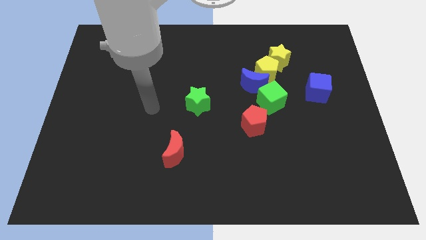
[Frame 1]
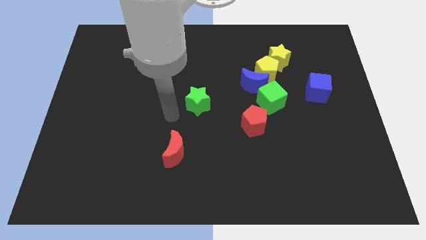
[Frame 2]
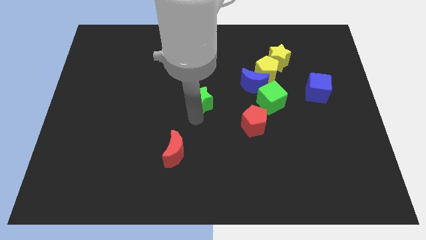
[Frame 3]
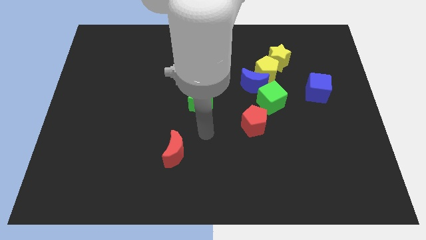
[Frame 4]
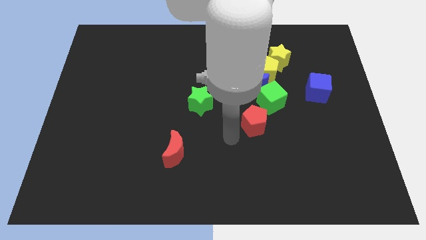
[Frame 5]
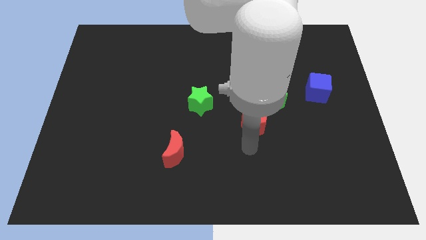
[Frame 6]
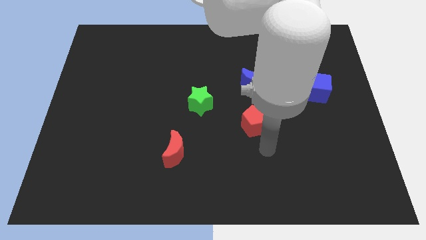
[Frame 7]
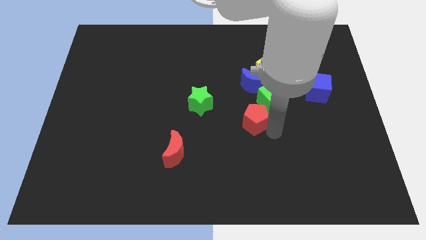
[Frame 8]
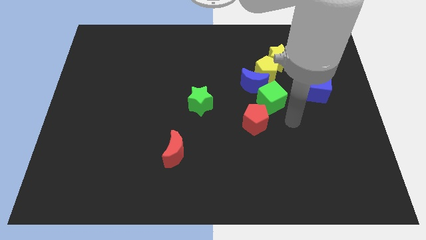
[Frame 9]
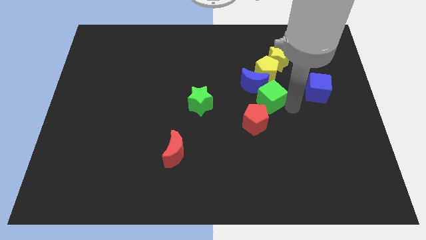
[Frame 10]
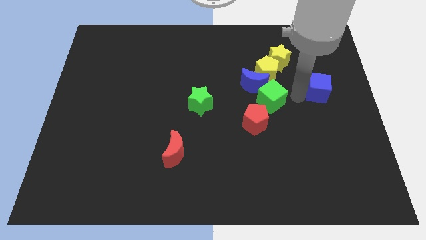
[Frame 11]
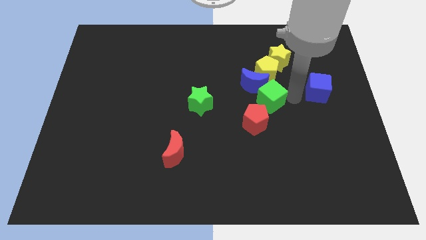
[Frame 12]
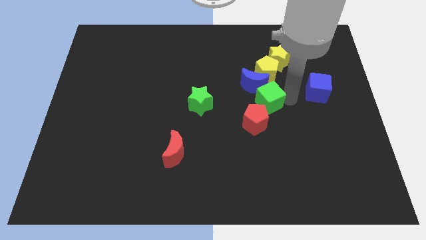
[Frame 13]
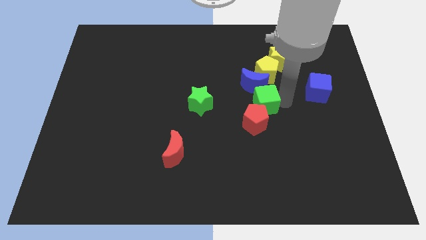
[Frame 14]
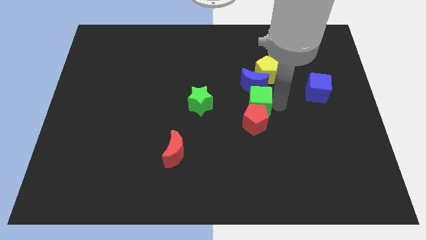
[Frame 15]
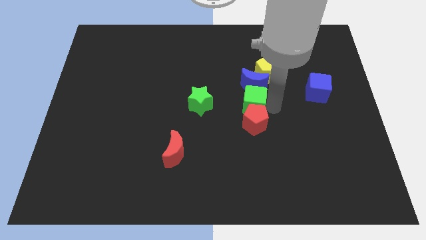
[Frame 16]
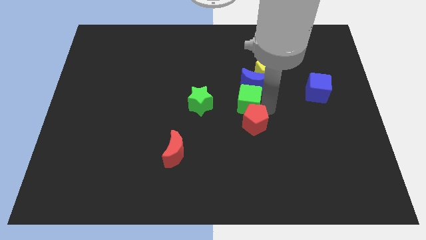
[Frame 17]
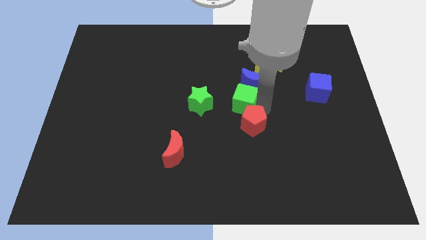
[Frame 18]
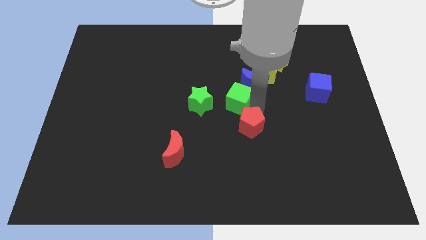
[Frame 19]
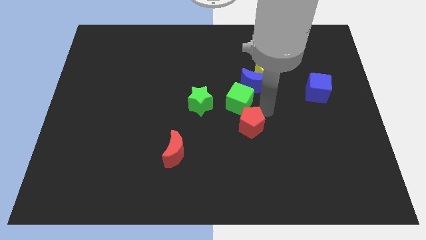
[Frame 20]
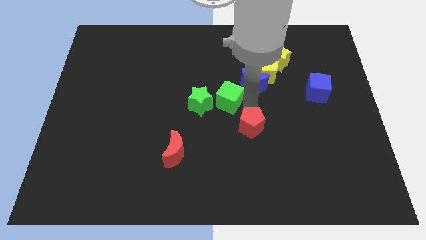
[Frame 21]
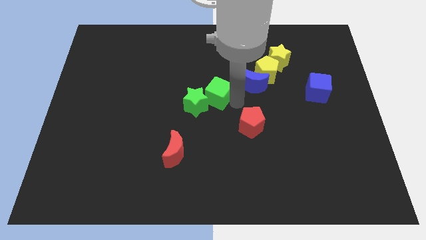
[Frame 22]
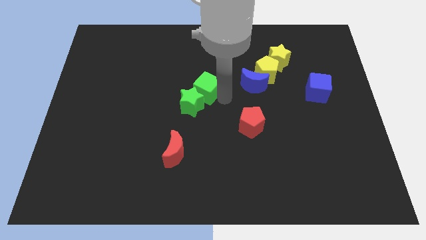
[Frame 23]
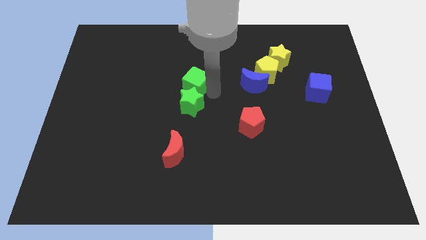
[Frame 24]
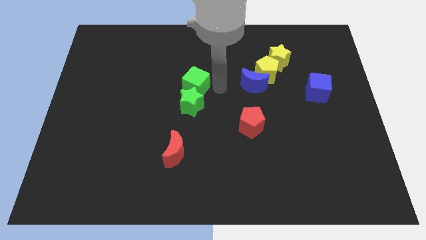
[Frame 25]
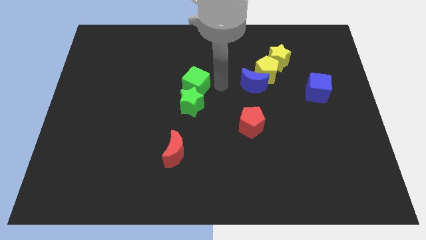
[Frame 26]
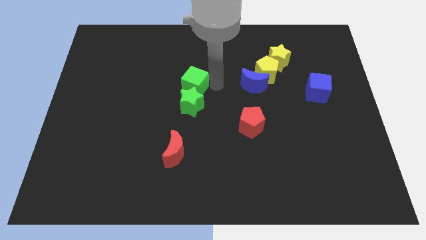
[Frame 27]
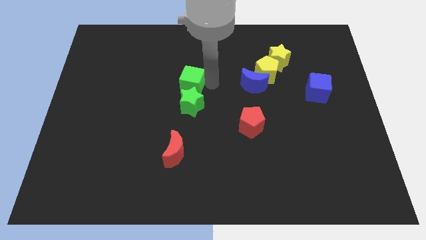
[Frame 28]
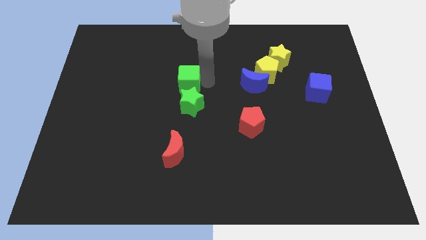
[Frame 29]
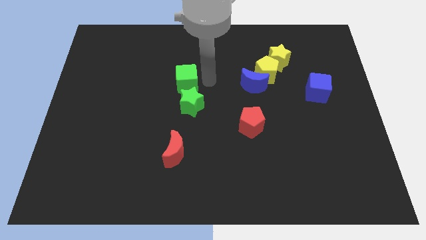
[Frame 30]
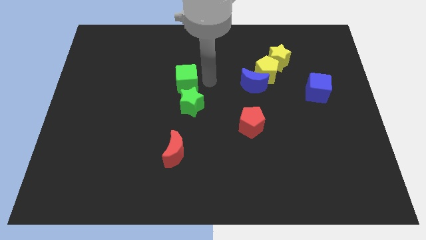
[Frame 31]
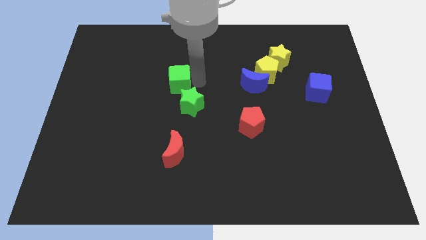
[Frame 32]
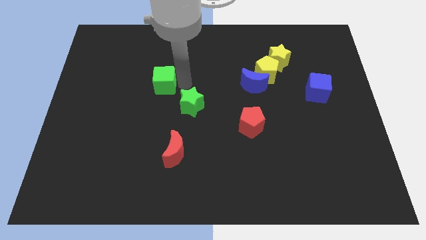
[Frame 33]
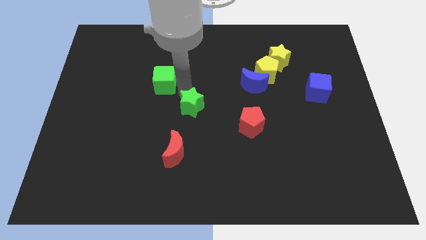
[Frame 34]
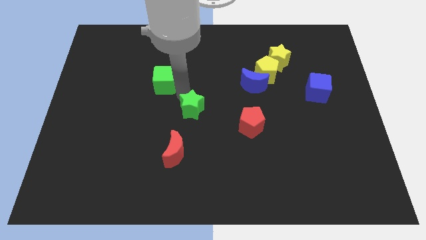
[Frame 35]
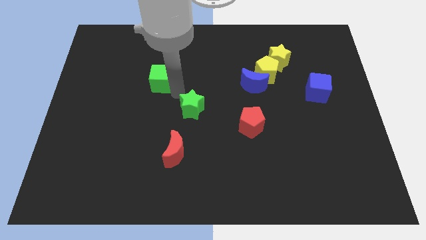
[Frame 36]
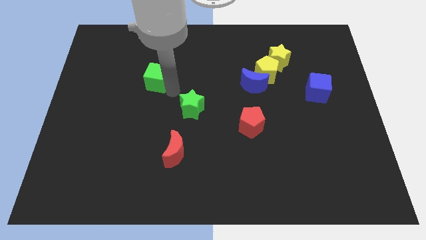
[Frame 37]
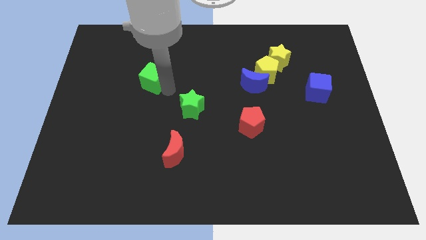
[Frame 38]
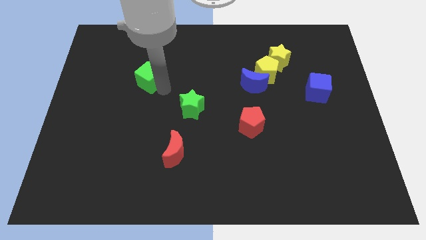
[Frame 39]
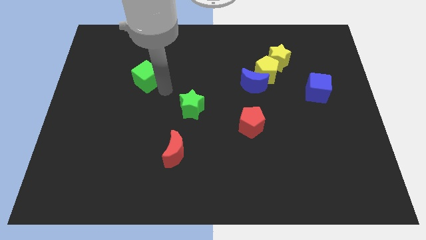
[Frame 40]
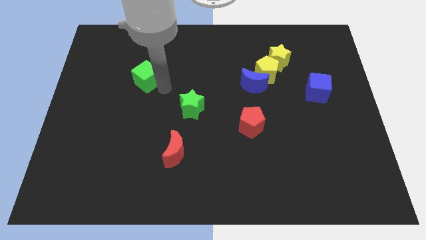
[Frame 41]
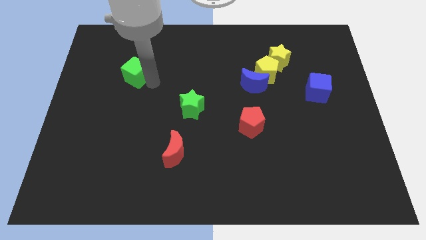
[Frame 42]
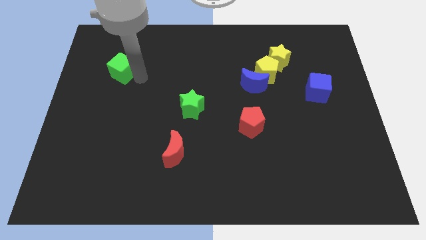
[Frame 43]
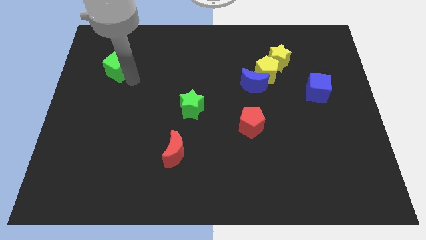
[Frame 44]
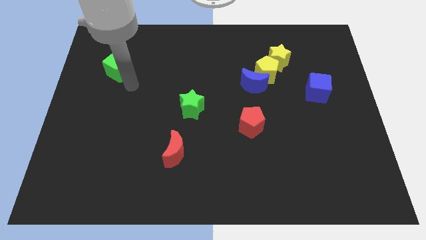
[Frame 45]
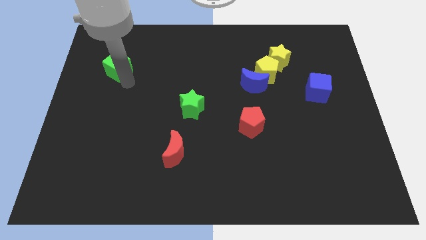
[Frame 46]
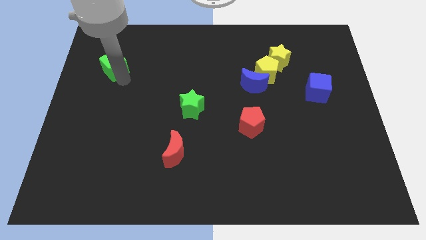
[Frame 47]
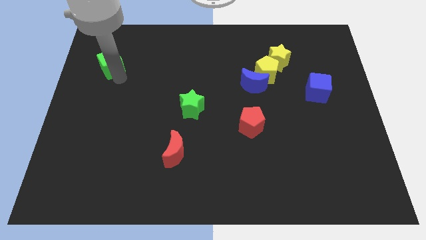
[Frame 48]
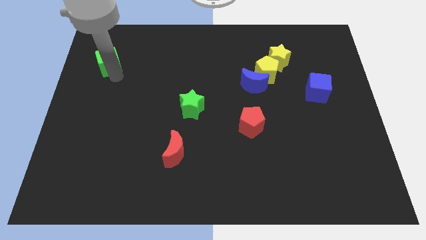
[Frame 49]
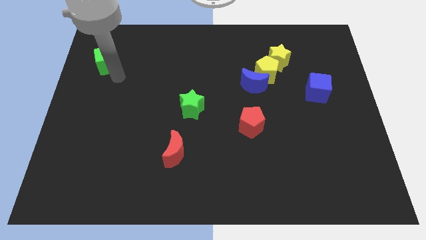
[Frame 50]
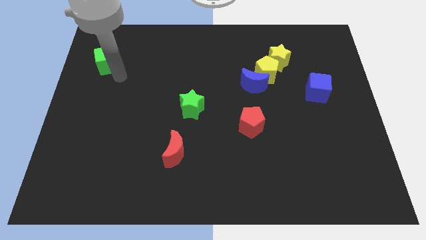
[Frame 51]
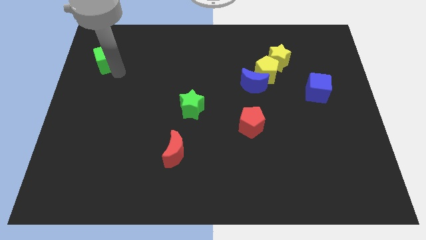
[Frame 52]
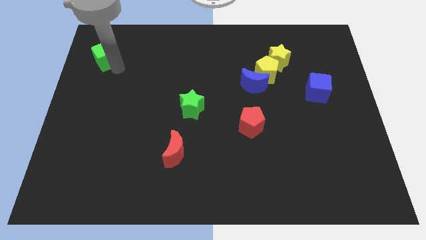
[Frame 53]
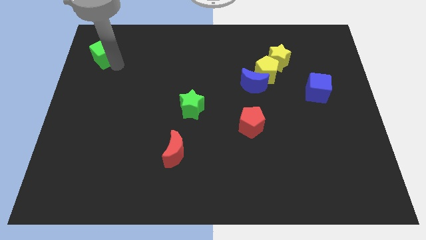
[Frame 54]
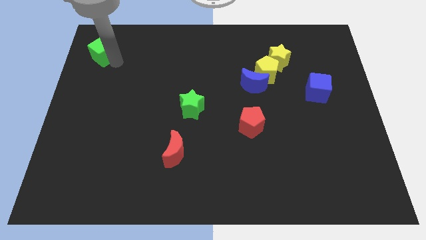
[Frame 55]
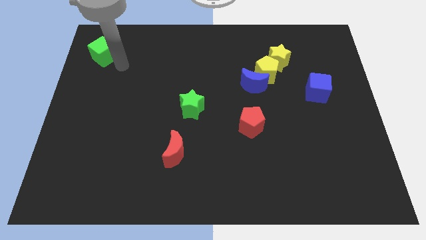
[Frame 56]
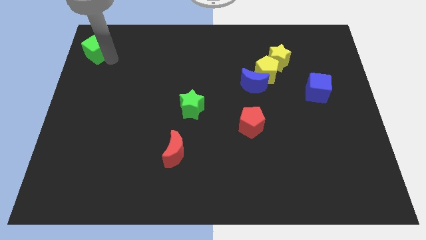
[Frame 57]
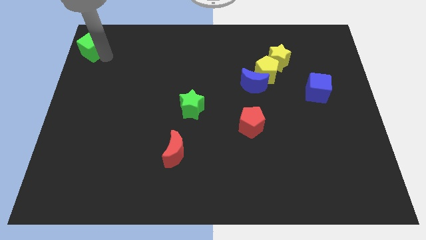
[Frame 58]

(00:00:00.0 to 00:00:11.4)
slide the green cube to the top left
